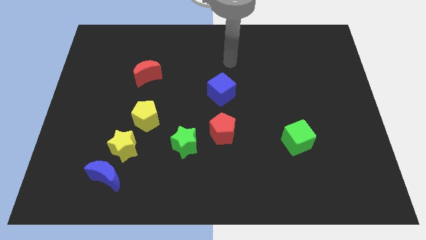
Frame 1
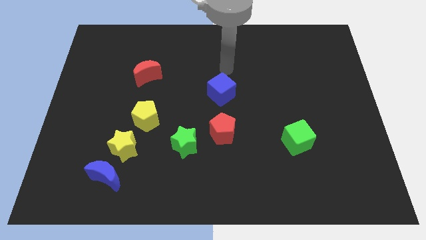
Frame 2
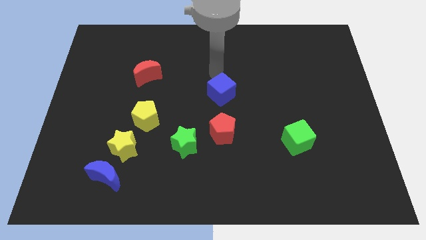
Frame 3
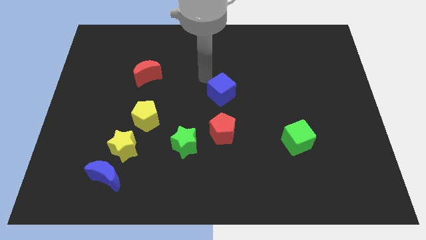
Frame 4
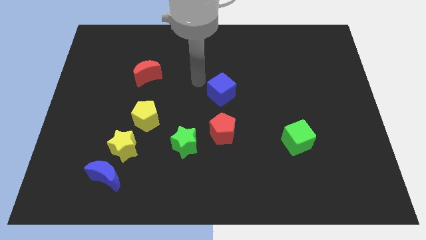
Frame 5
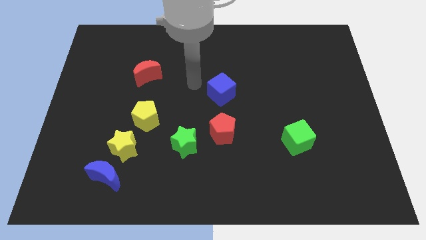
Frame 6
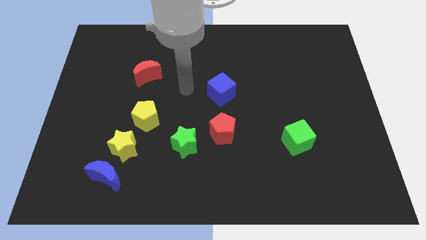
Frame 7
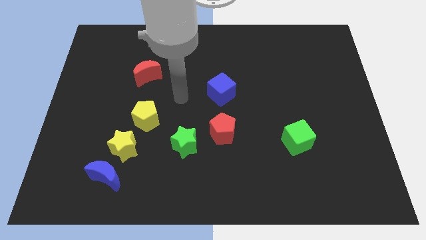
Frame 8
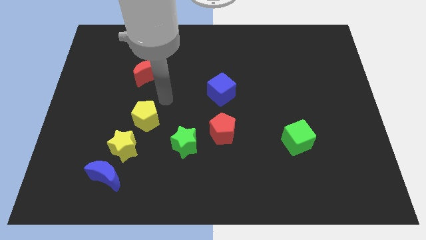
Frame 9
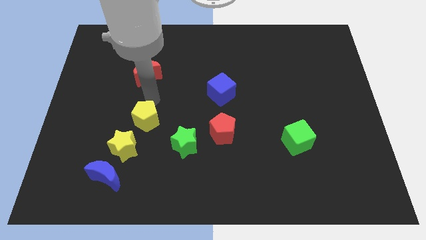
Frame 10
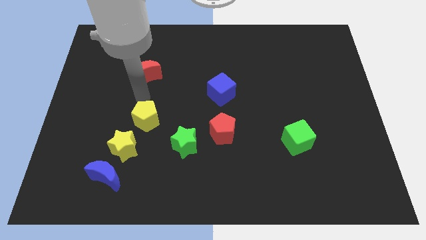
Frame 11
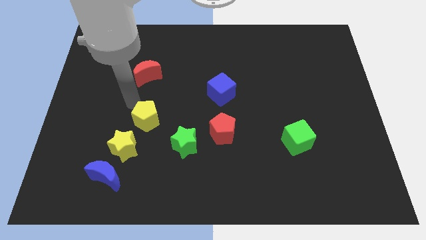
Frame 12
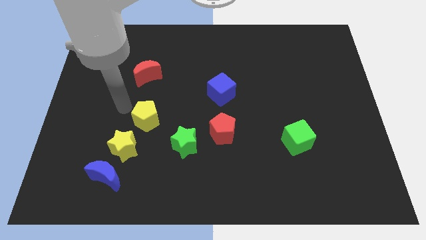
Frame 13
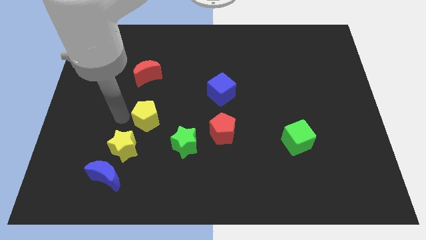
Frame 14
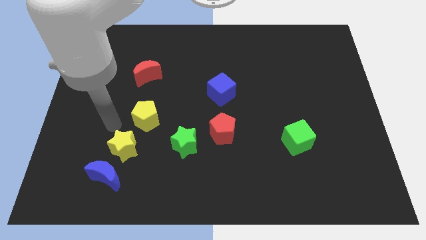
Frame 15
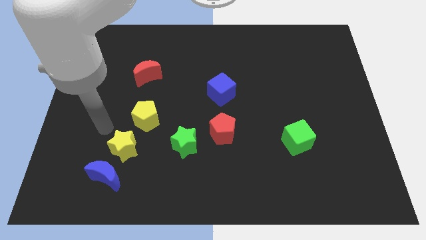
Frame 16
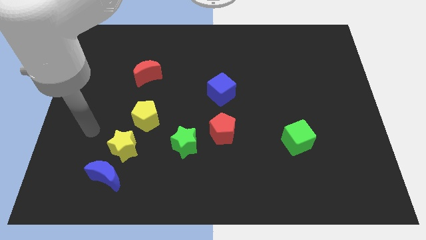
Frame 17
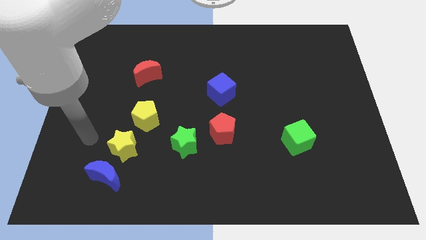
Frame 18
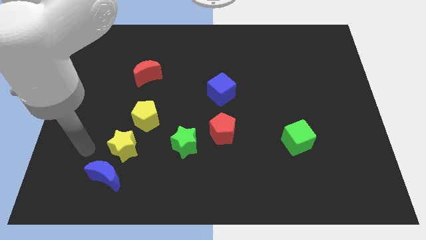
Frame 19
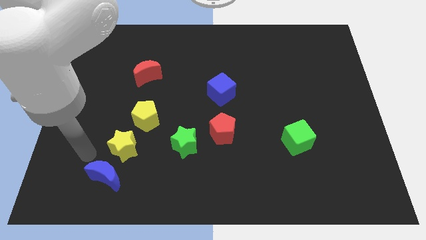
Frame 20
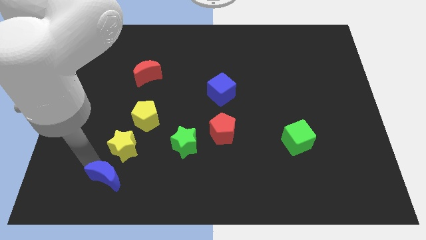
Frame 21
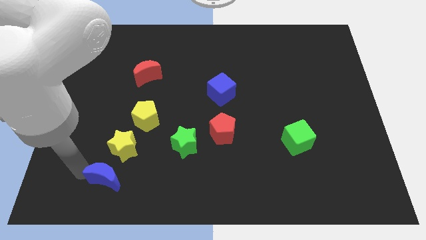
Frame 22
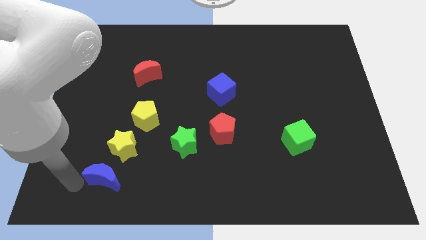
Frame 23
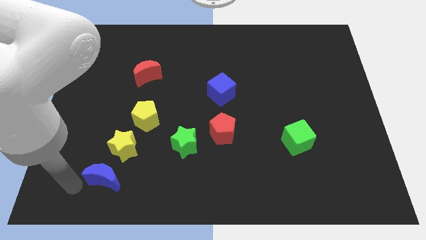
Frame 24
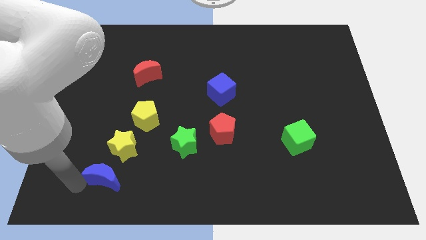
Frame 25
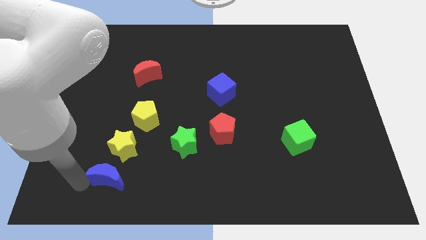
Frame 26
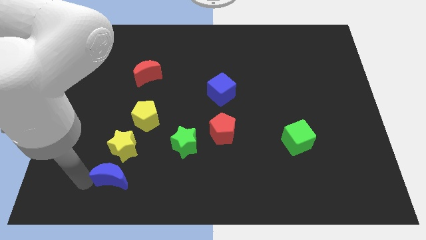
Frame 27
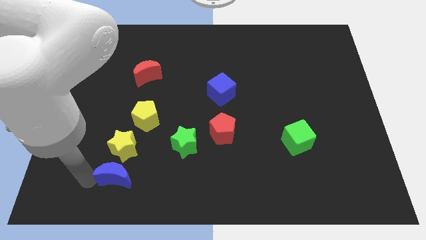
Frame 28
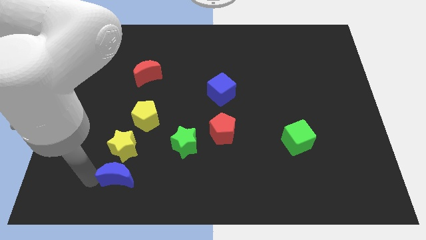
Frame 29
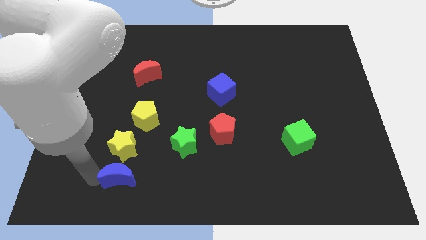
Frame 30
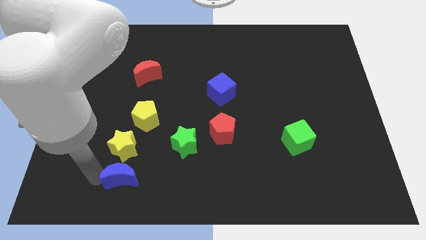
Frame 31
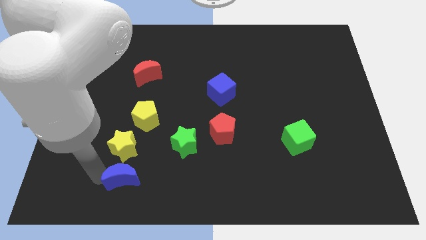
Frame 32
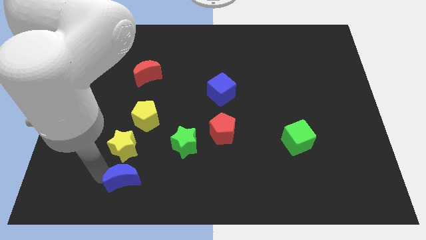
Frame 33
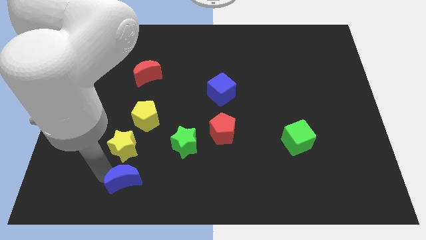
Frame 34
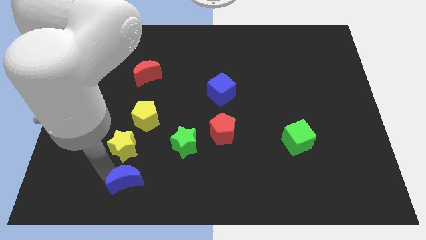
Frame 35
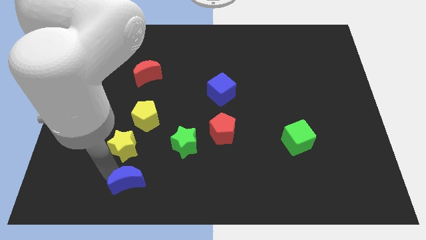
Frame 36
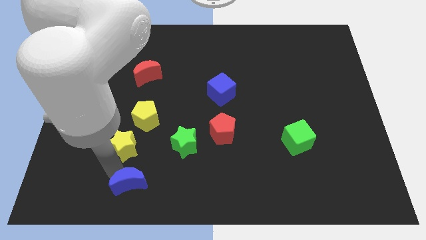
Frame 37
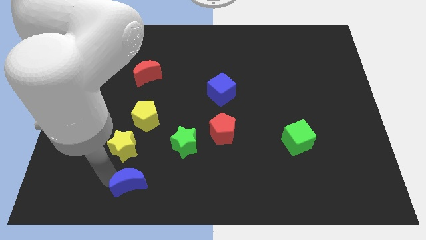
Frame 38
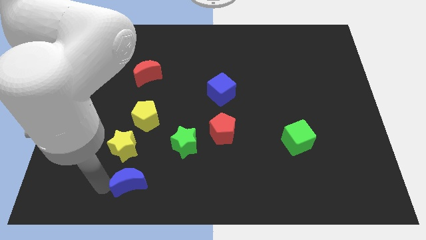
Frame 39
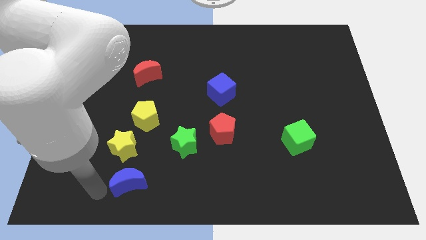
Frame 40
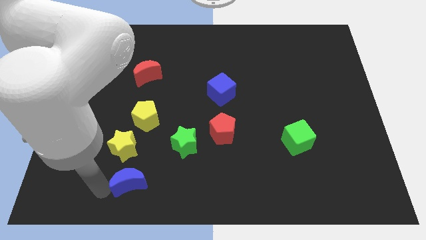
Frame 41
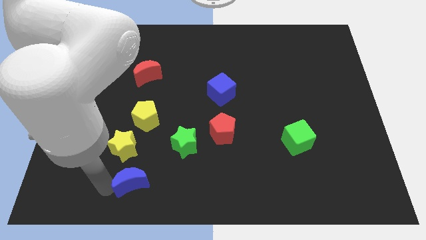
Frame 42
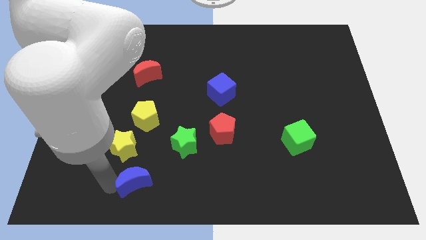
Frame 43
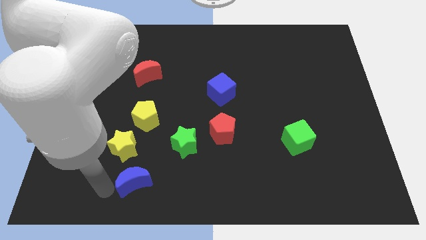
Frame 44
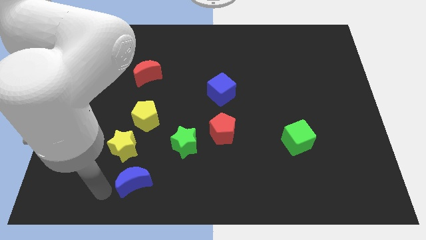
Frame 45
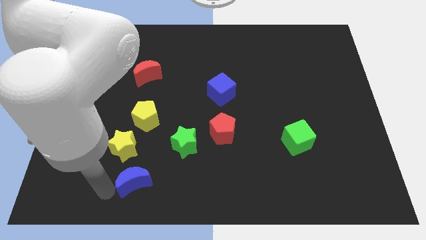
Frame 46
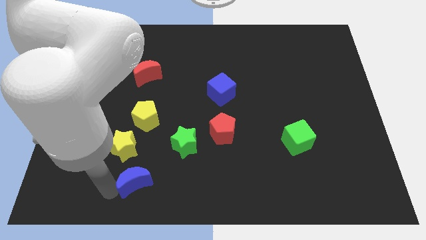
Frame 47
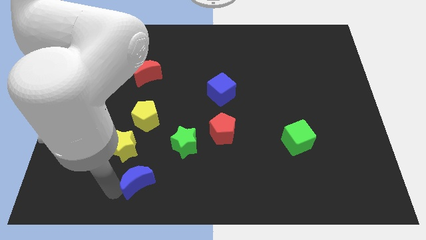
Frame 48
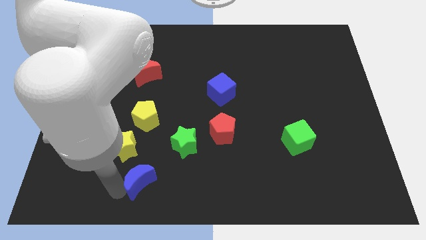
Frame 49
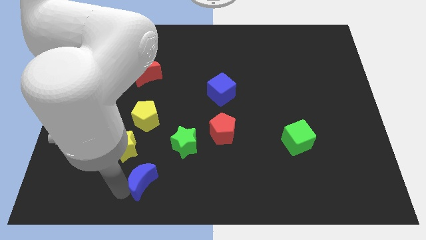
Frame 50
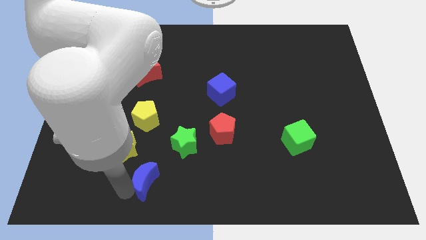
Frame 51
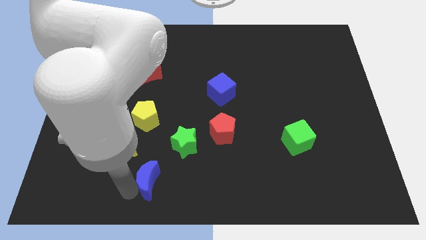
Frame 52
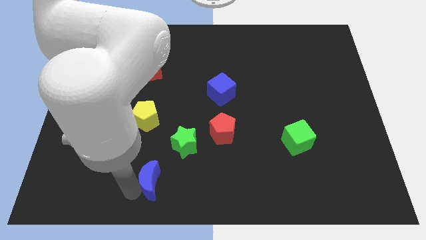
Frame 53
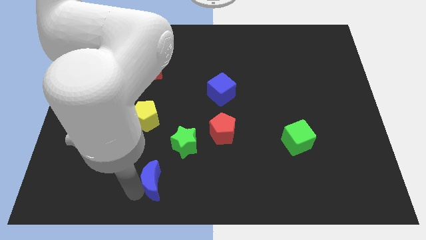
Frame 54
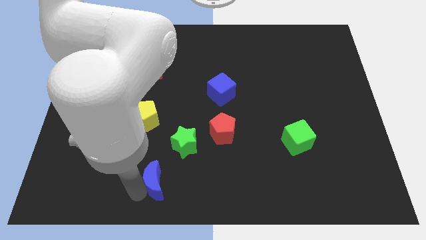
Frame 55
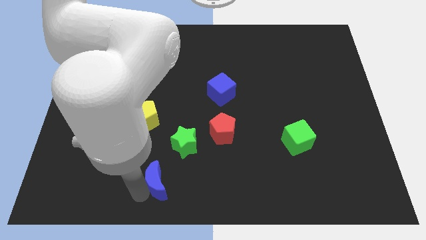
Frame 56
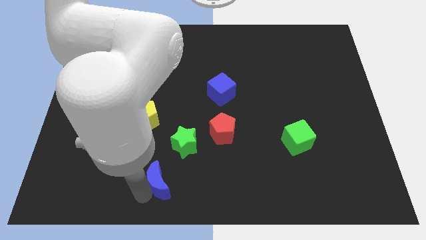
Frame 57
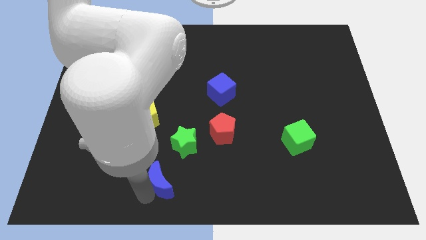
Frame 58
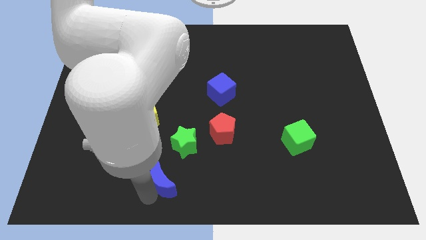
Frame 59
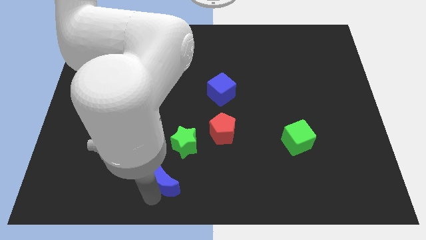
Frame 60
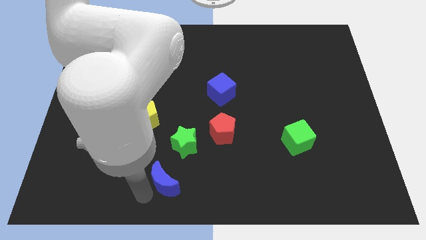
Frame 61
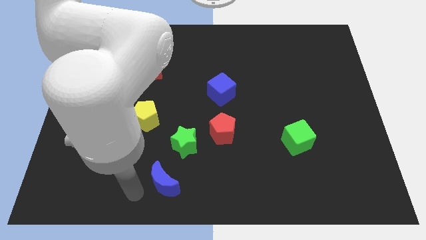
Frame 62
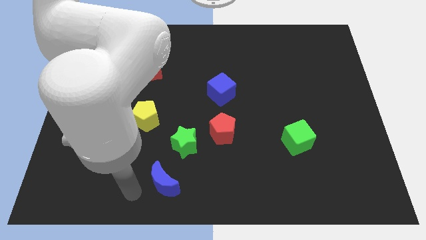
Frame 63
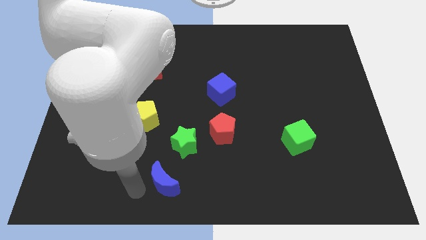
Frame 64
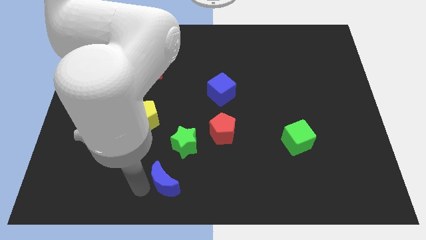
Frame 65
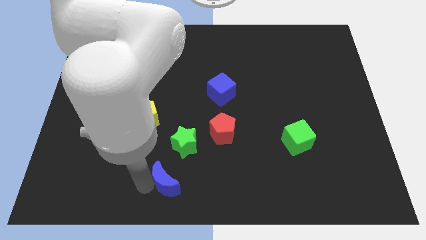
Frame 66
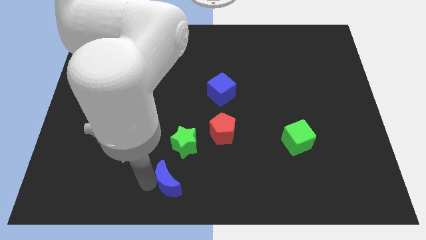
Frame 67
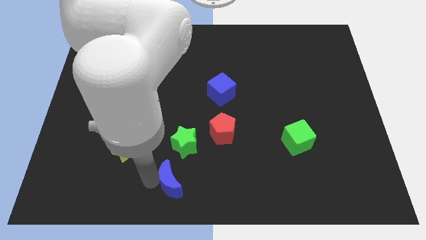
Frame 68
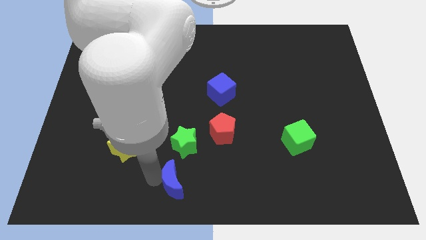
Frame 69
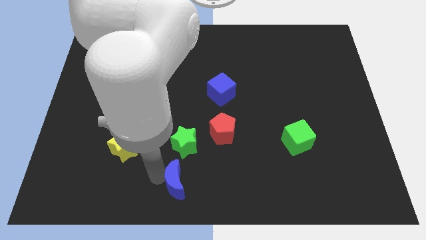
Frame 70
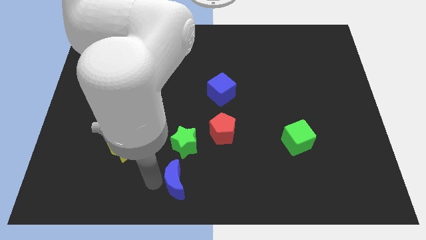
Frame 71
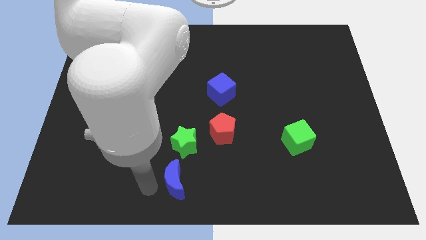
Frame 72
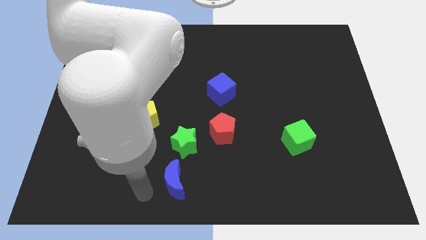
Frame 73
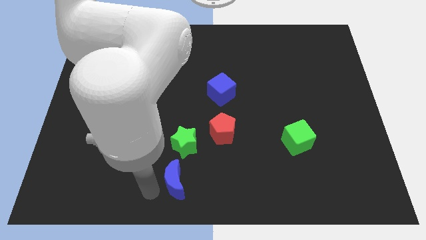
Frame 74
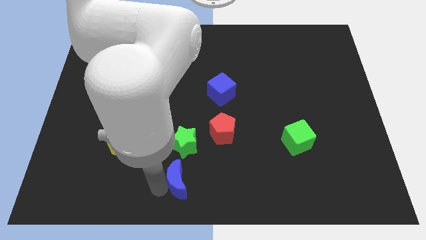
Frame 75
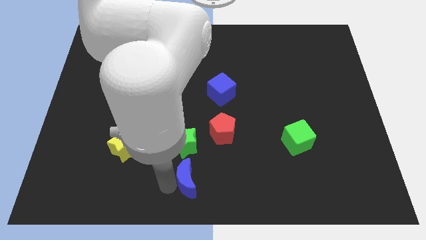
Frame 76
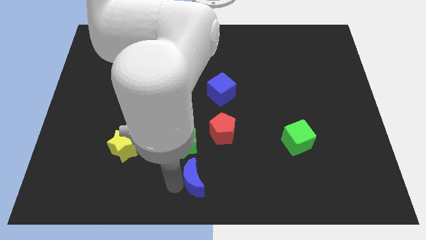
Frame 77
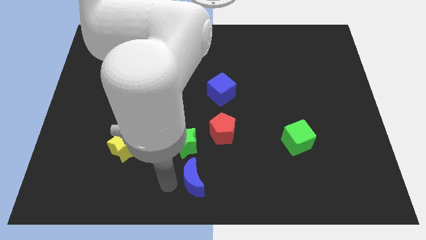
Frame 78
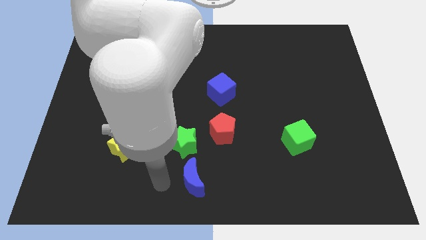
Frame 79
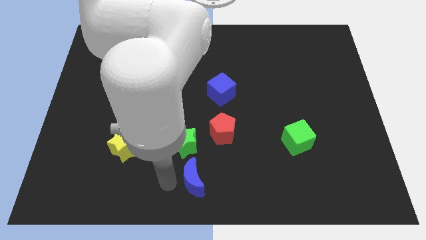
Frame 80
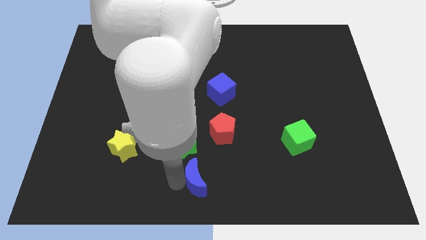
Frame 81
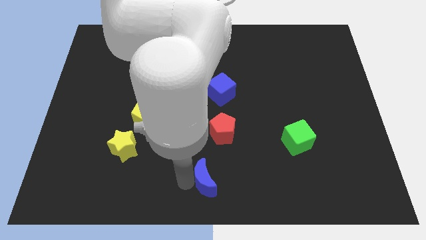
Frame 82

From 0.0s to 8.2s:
move the blue moon right
